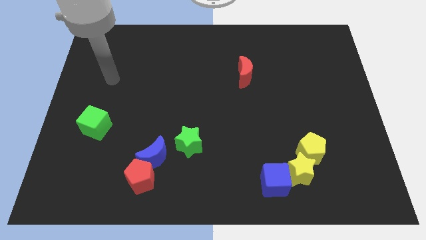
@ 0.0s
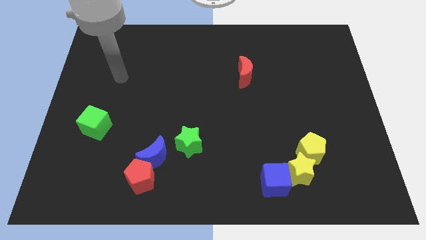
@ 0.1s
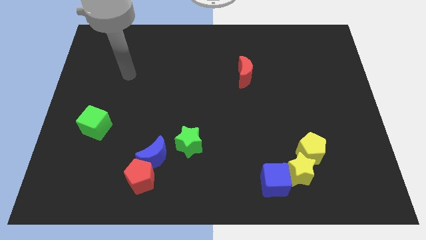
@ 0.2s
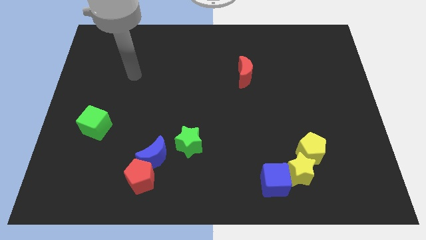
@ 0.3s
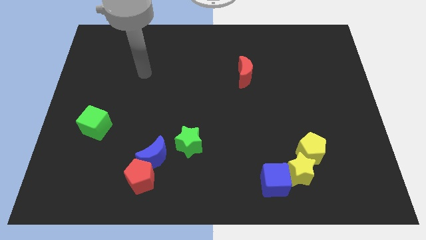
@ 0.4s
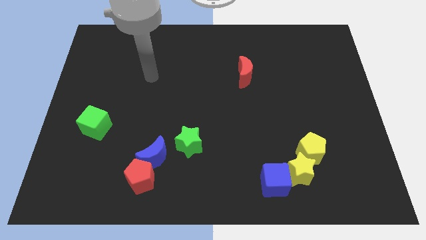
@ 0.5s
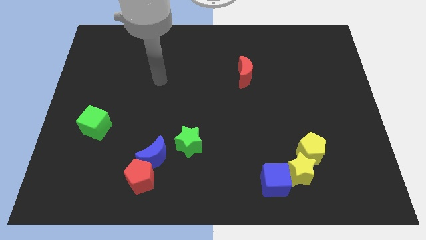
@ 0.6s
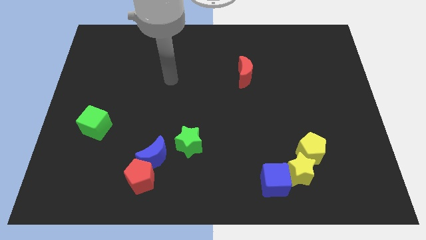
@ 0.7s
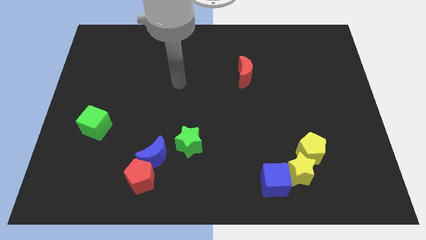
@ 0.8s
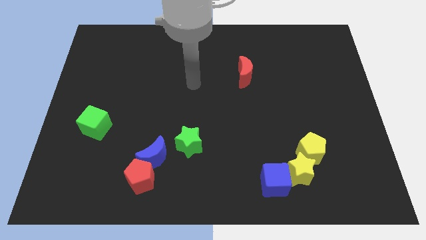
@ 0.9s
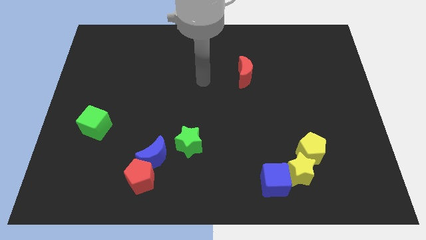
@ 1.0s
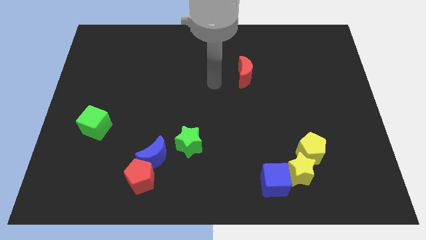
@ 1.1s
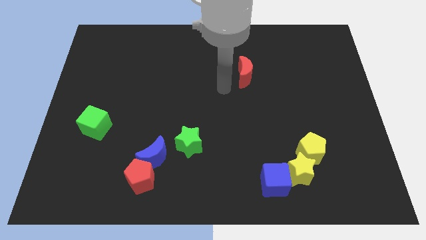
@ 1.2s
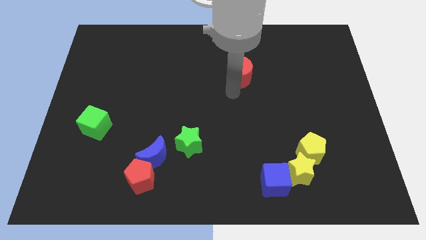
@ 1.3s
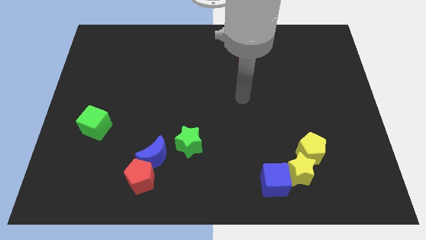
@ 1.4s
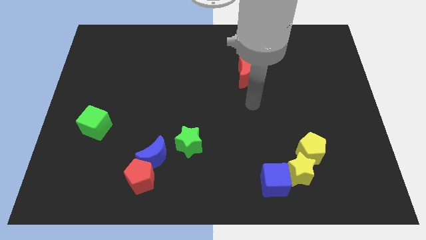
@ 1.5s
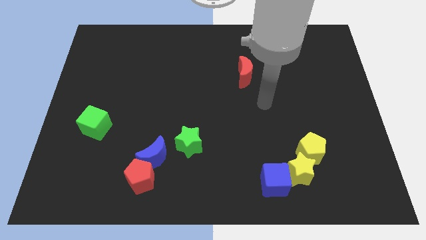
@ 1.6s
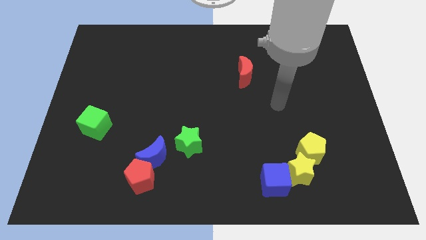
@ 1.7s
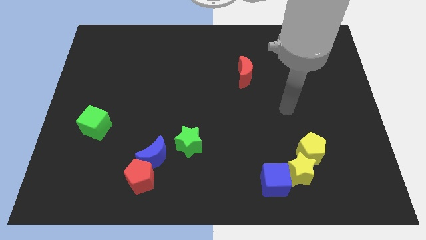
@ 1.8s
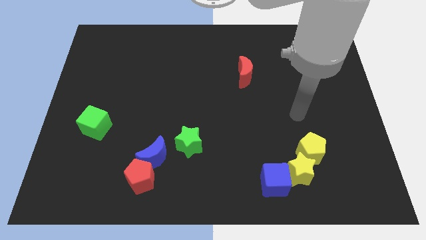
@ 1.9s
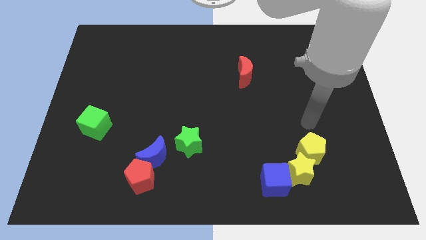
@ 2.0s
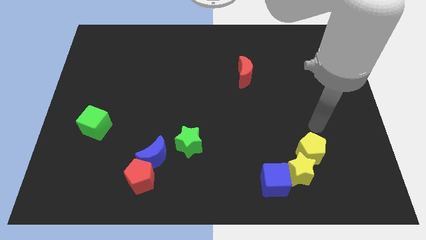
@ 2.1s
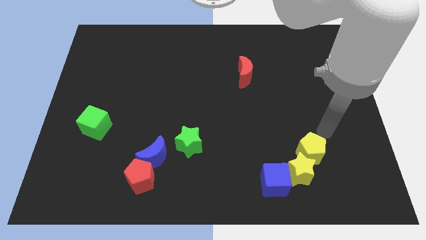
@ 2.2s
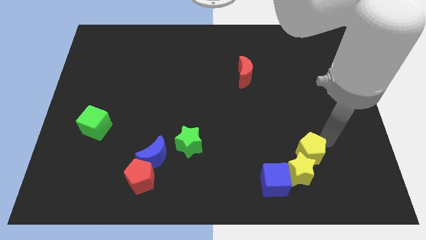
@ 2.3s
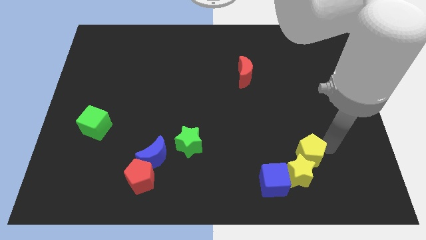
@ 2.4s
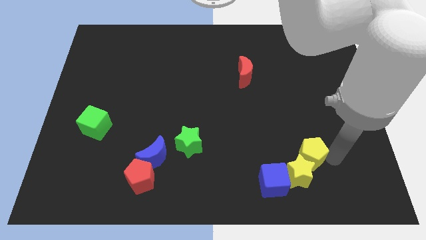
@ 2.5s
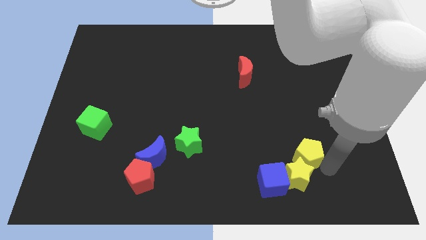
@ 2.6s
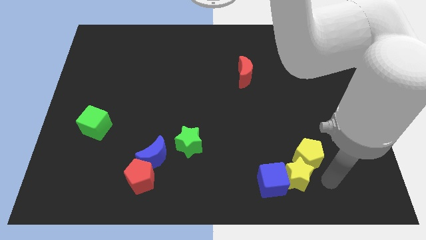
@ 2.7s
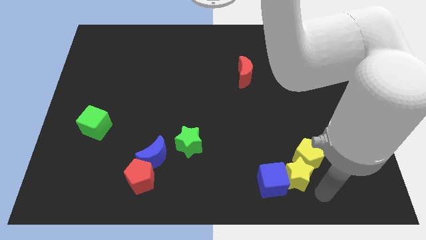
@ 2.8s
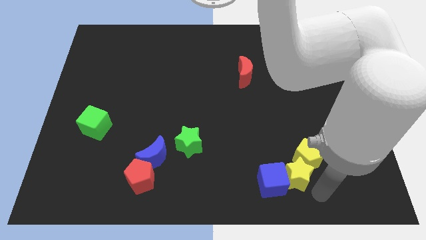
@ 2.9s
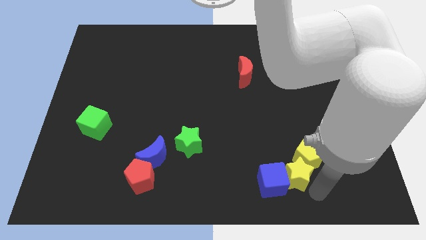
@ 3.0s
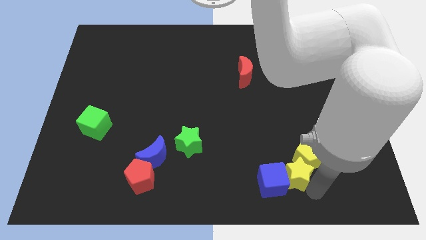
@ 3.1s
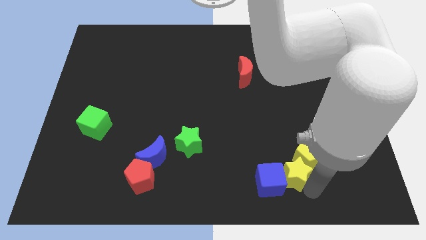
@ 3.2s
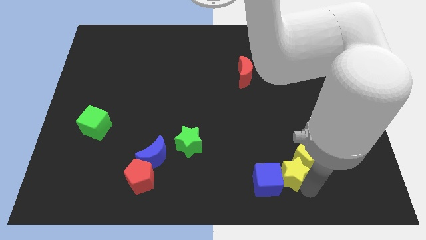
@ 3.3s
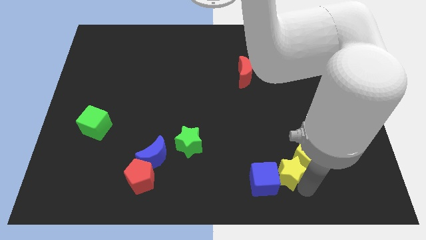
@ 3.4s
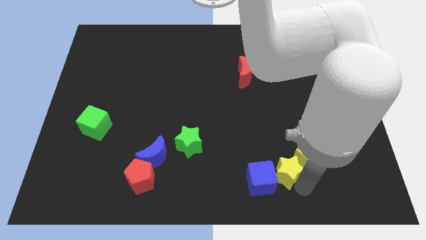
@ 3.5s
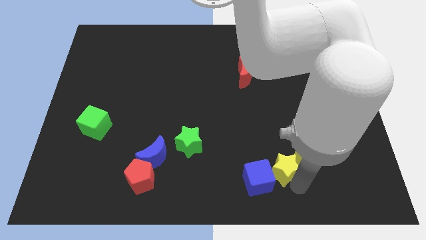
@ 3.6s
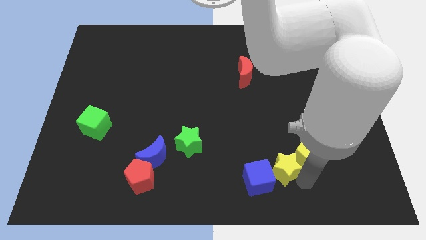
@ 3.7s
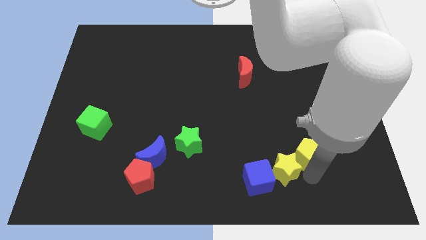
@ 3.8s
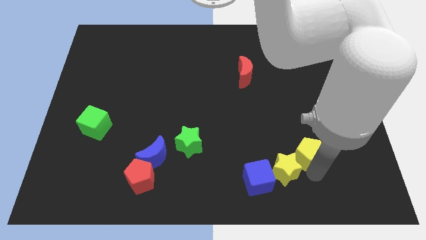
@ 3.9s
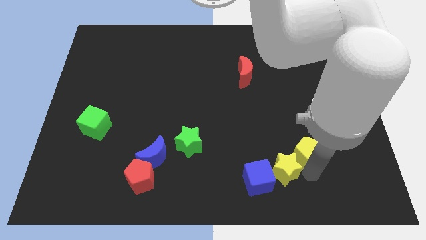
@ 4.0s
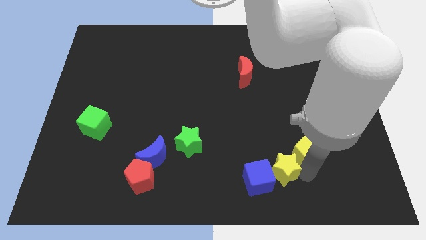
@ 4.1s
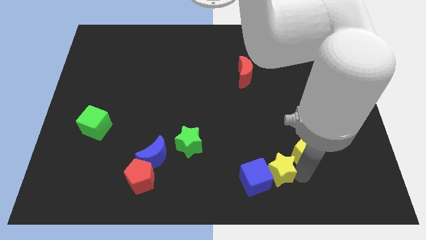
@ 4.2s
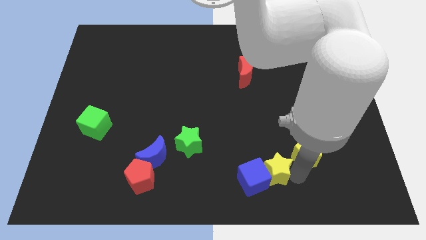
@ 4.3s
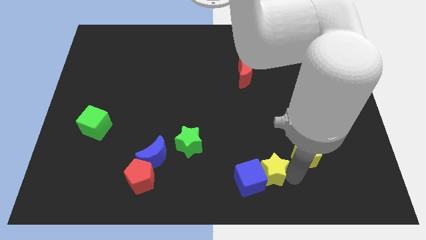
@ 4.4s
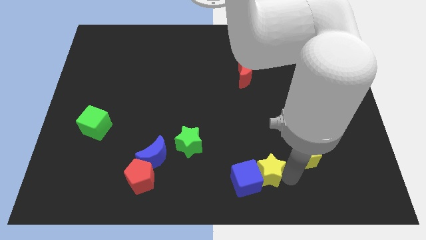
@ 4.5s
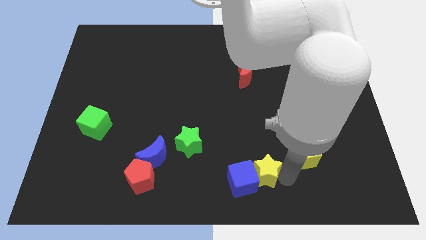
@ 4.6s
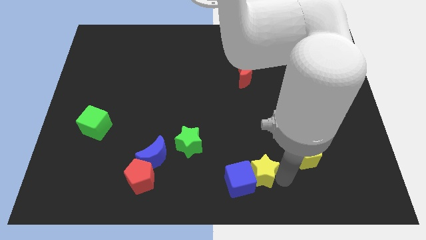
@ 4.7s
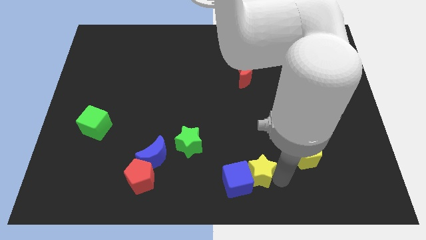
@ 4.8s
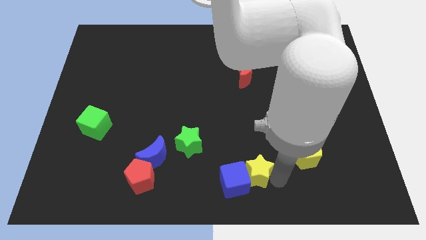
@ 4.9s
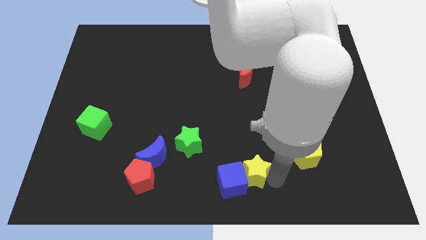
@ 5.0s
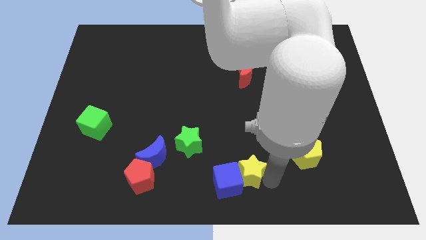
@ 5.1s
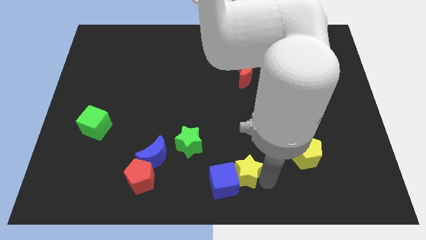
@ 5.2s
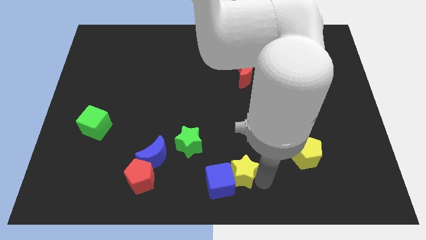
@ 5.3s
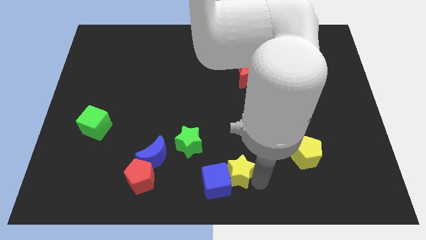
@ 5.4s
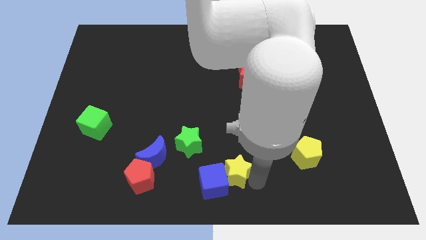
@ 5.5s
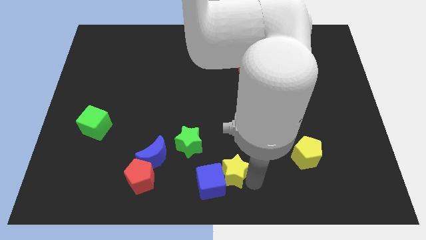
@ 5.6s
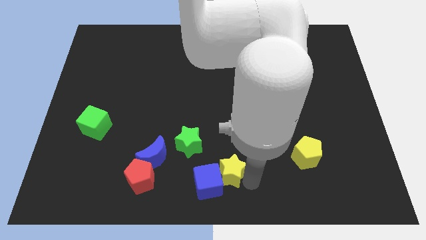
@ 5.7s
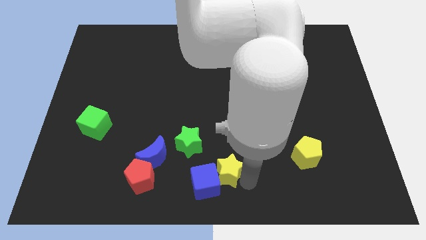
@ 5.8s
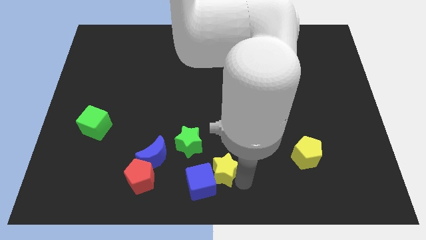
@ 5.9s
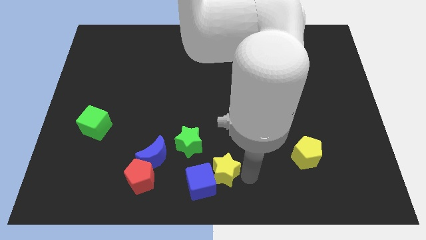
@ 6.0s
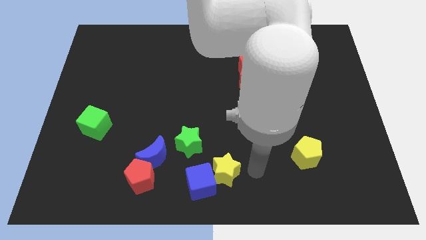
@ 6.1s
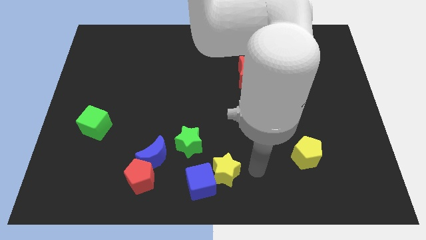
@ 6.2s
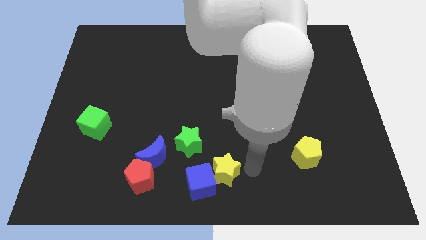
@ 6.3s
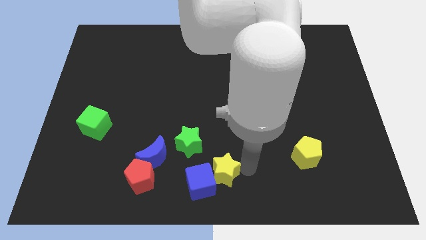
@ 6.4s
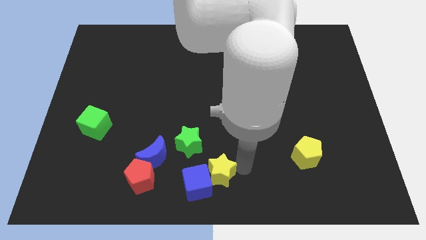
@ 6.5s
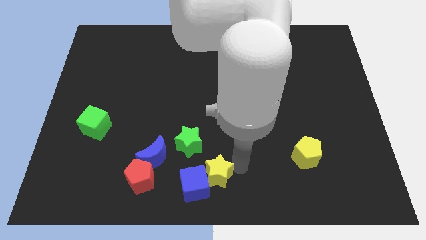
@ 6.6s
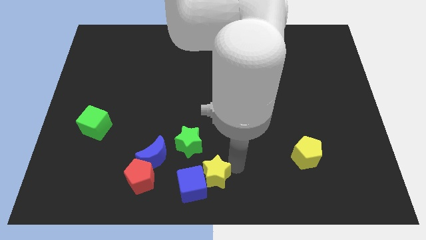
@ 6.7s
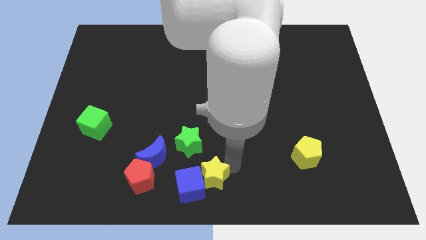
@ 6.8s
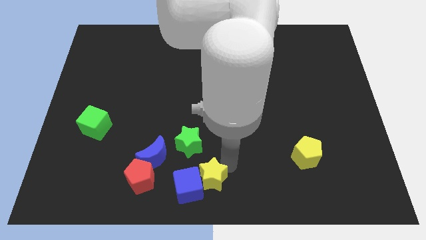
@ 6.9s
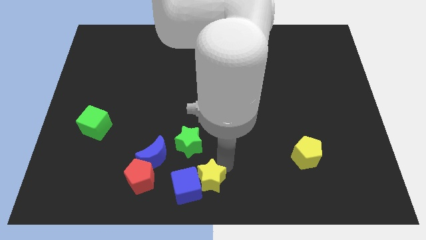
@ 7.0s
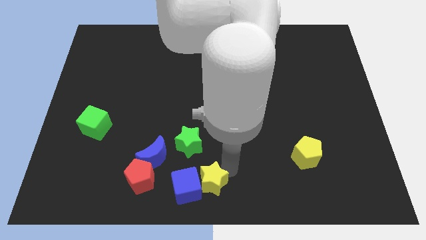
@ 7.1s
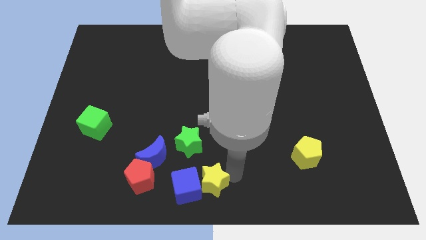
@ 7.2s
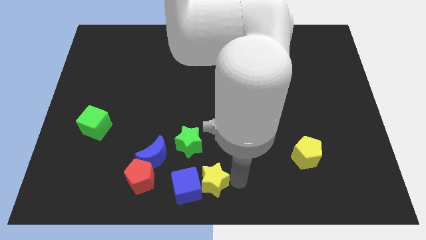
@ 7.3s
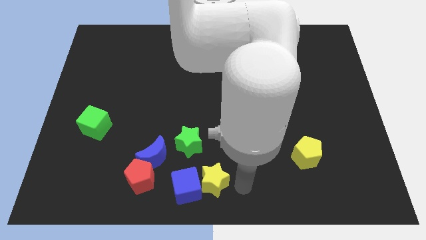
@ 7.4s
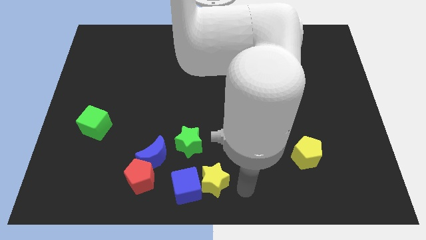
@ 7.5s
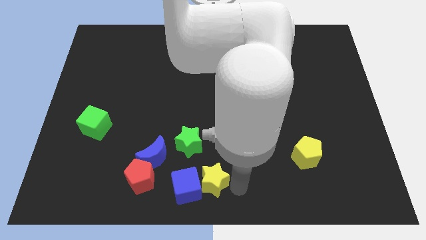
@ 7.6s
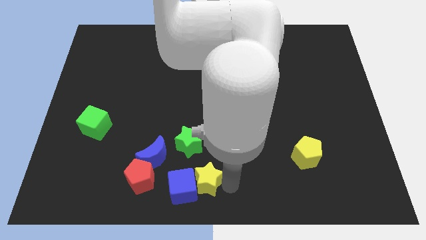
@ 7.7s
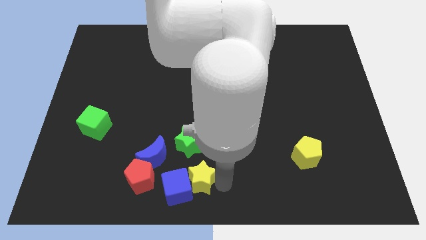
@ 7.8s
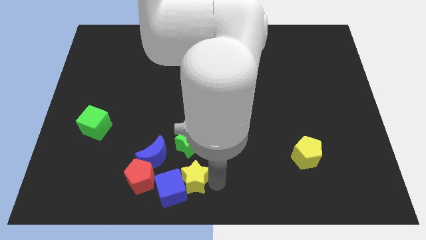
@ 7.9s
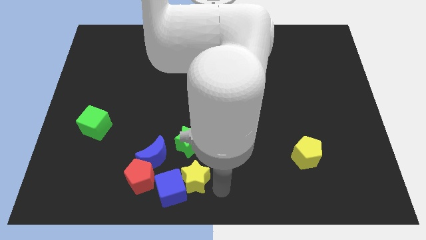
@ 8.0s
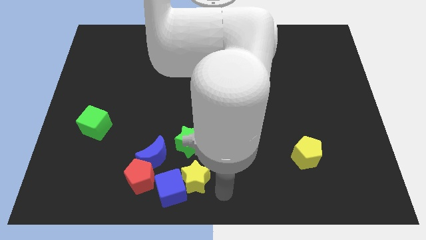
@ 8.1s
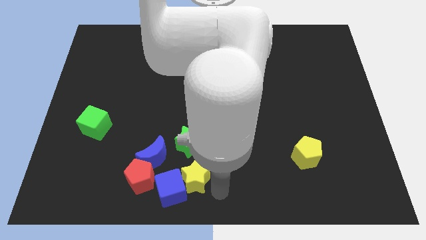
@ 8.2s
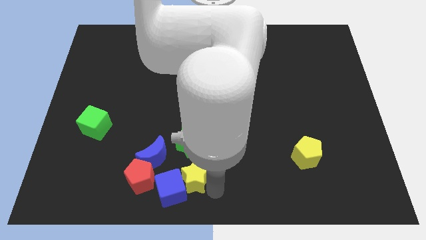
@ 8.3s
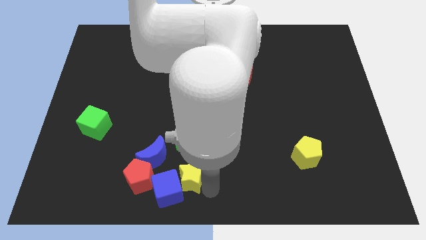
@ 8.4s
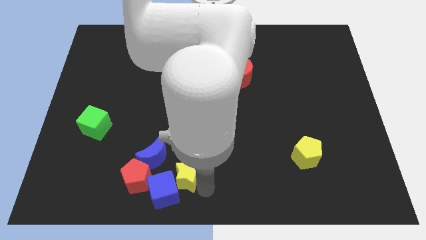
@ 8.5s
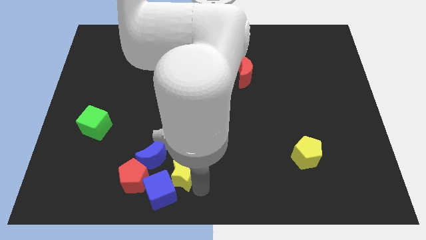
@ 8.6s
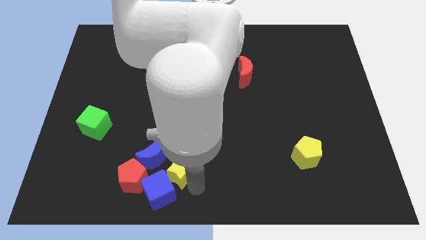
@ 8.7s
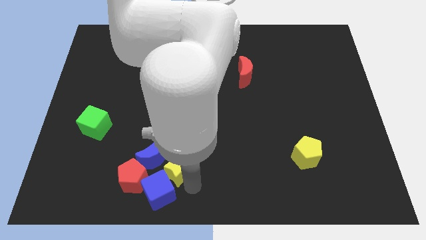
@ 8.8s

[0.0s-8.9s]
push the yellow star next to the blue moon
